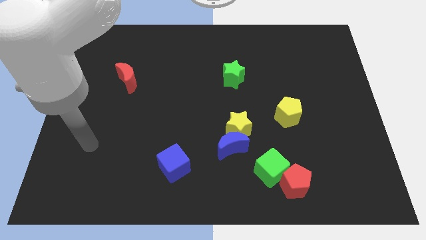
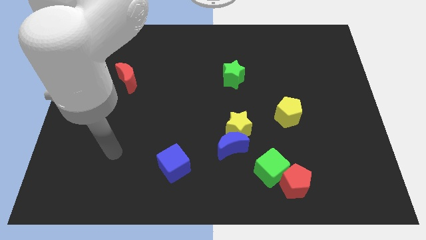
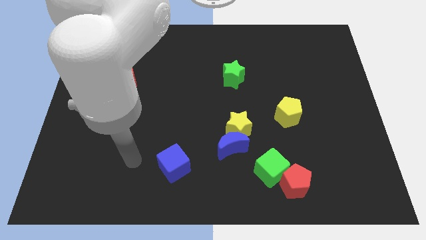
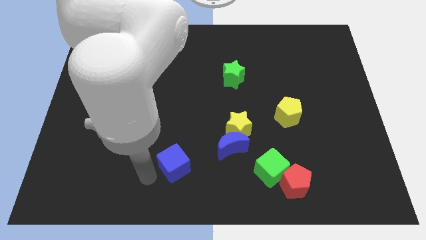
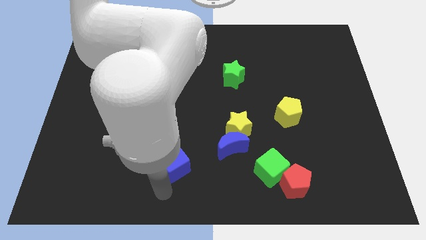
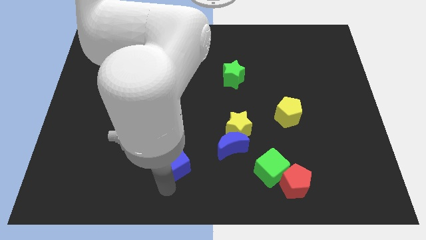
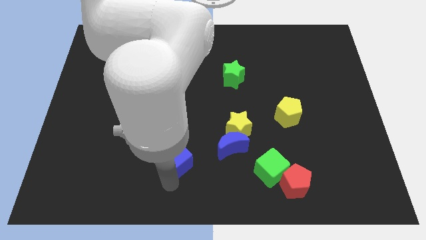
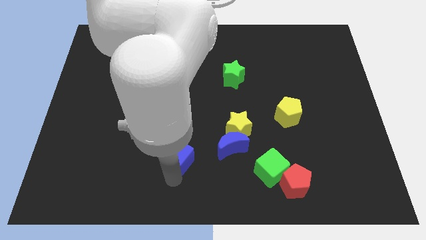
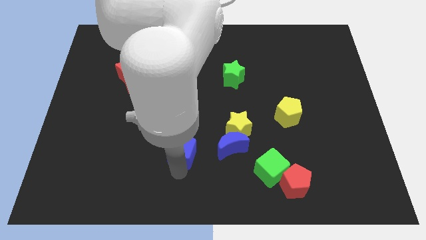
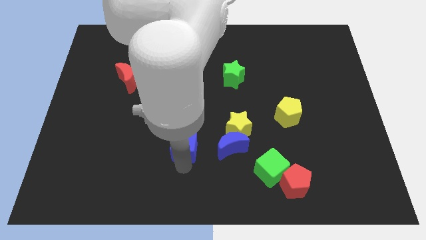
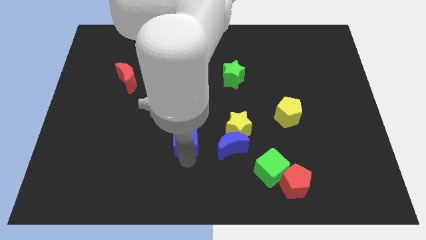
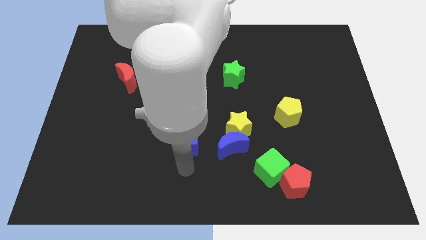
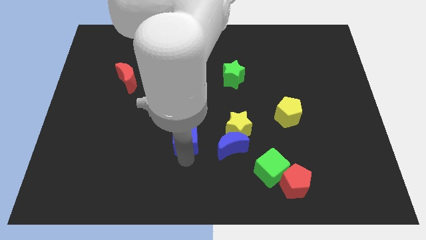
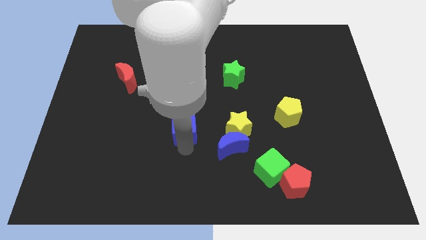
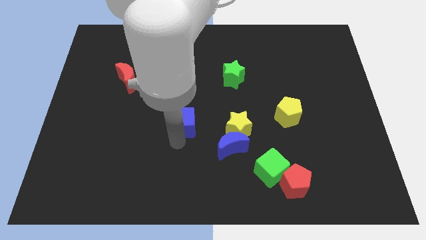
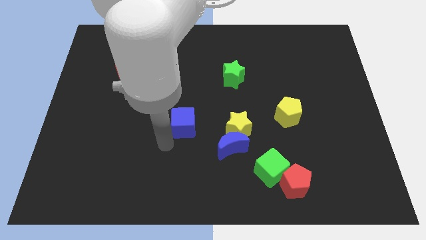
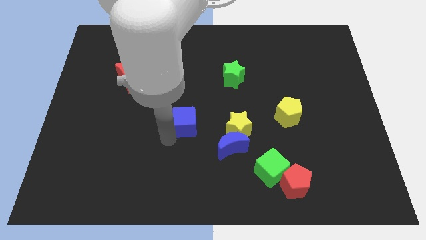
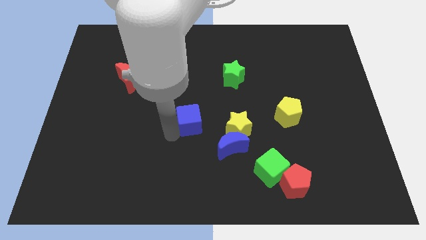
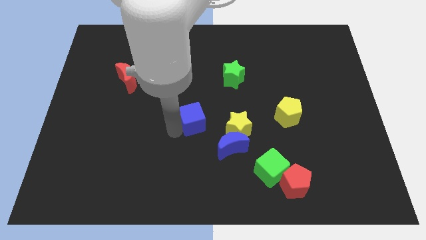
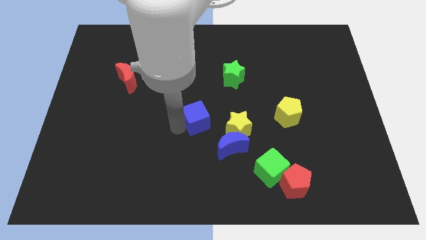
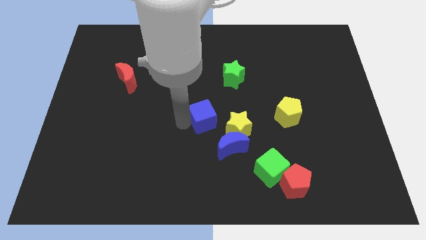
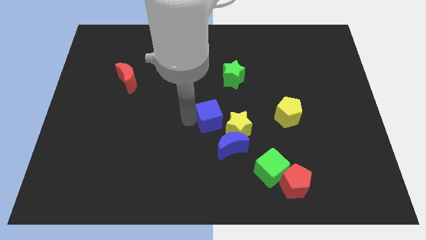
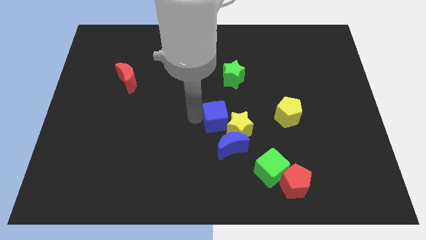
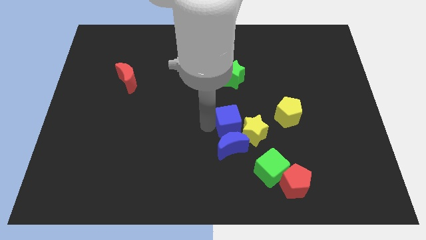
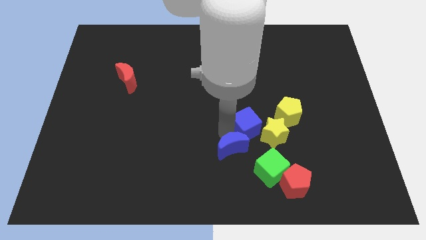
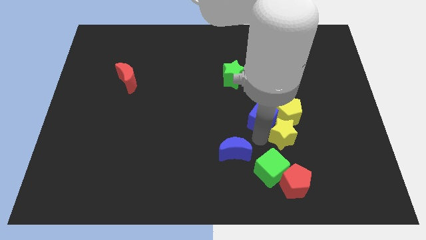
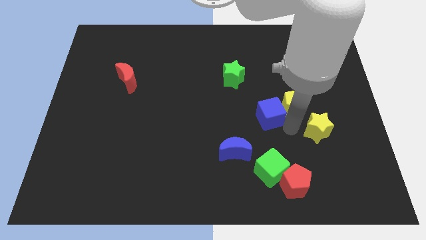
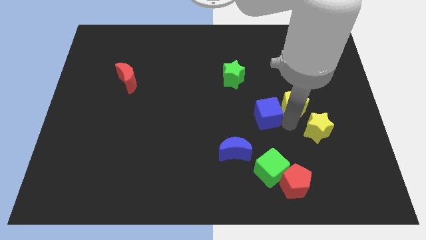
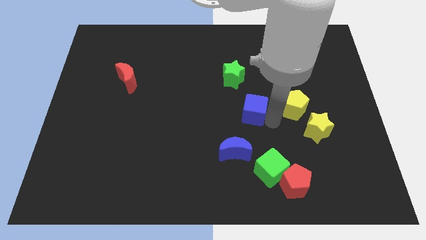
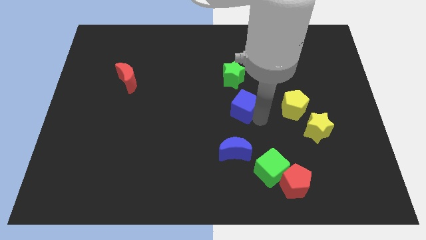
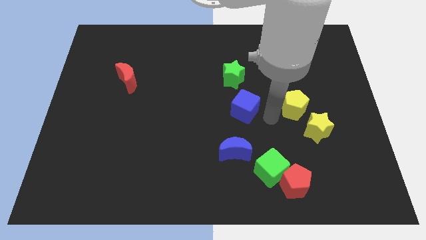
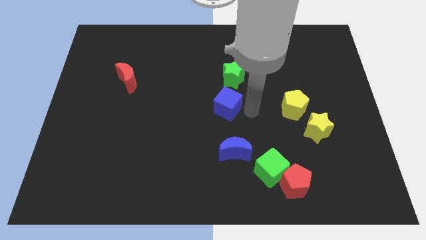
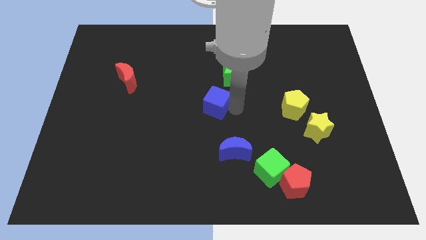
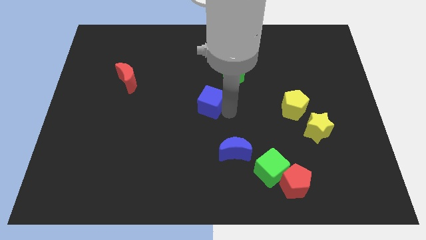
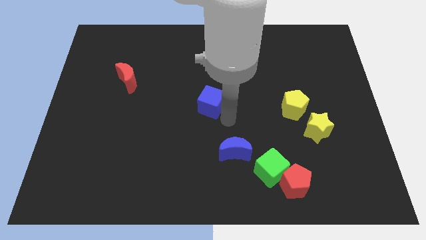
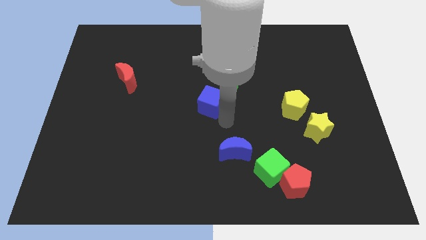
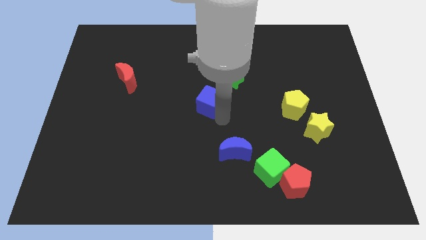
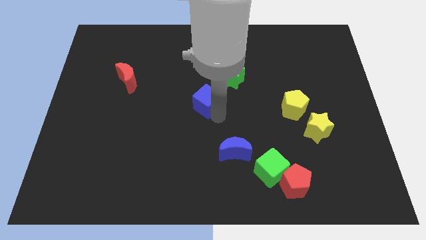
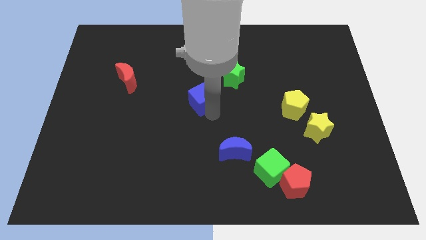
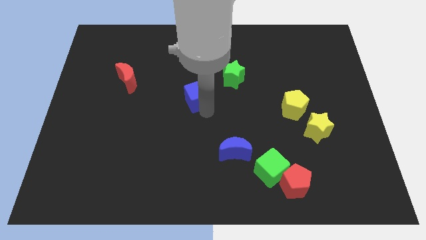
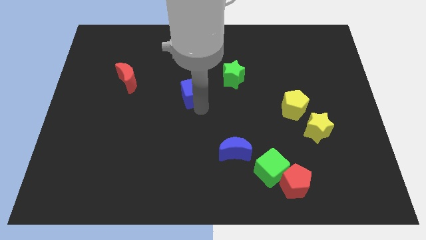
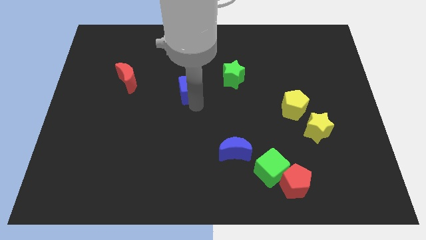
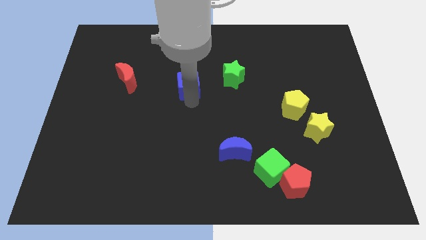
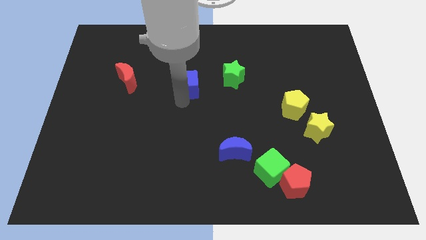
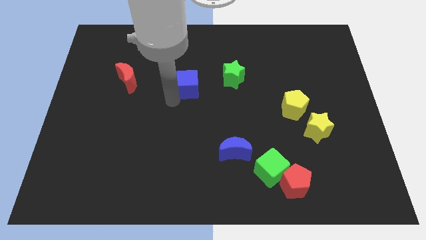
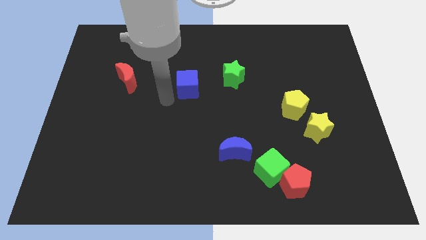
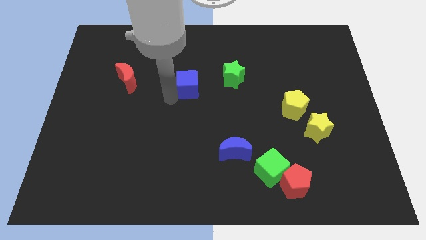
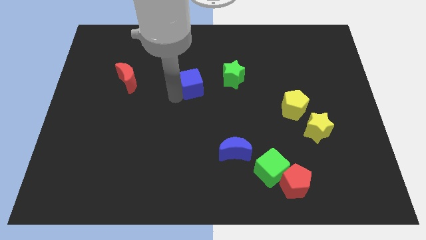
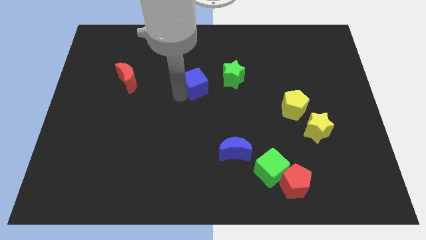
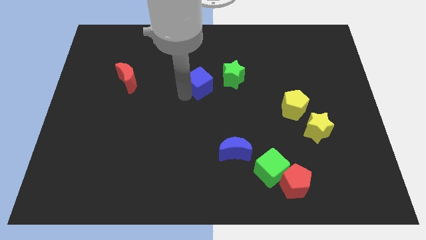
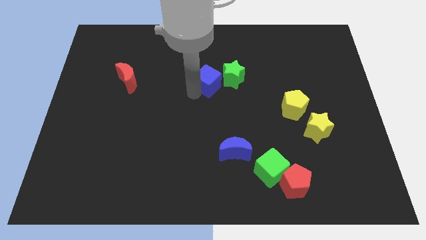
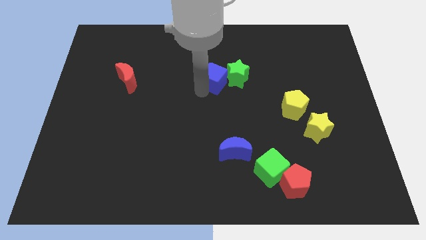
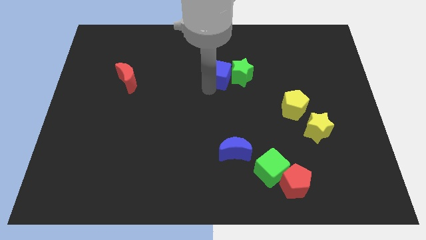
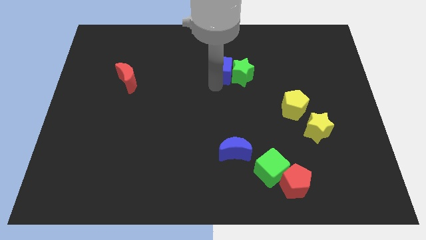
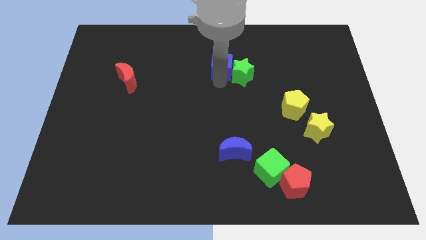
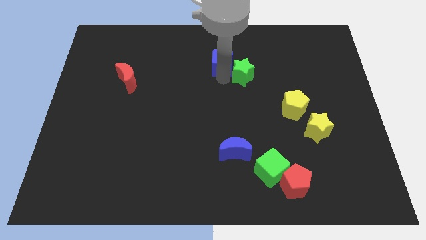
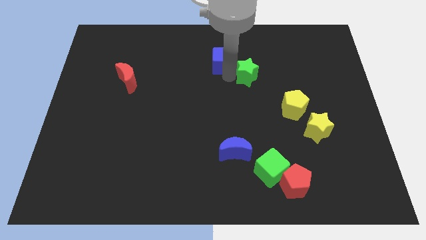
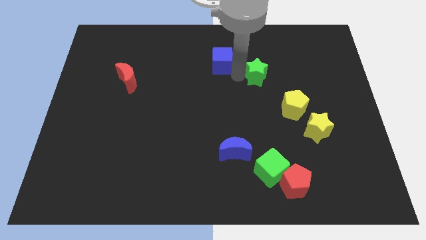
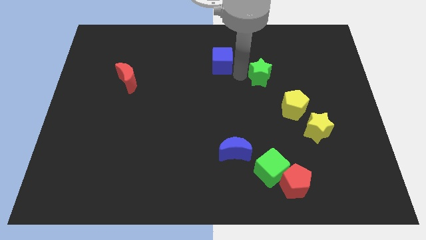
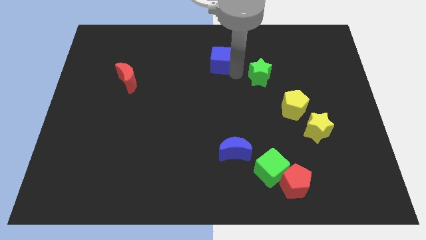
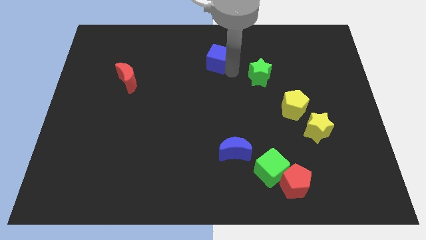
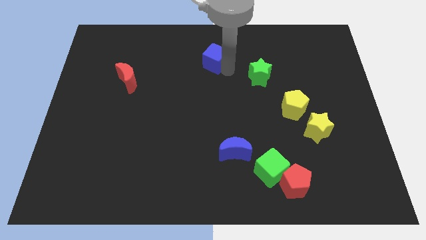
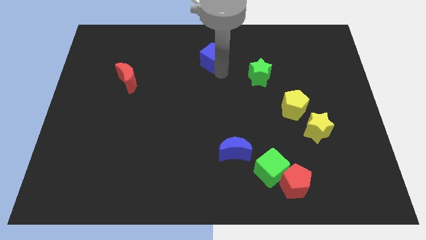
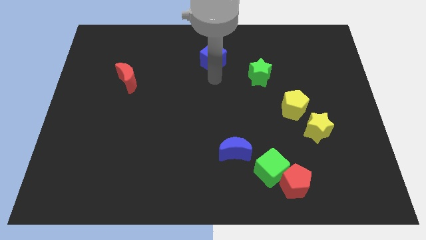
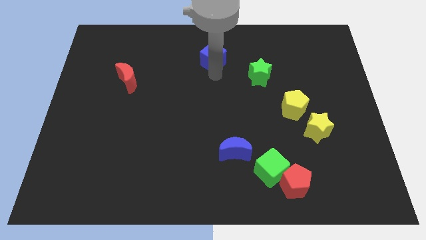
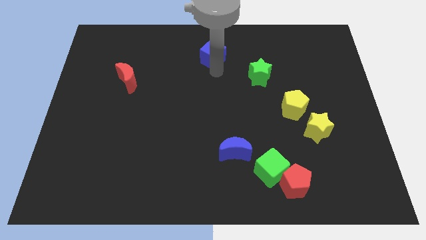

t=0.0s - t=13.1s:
move the blue cube to the top side

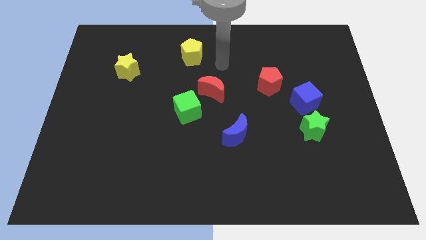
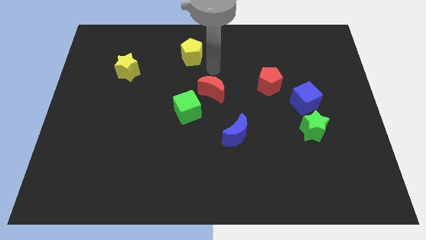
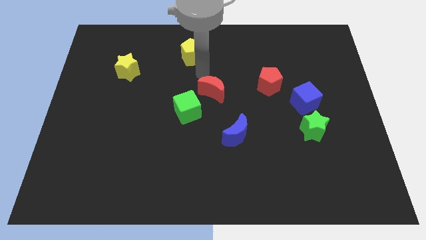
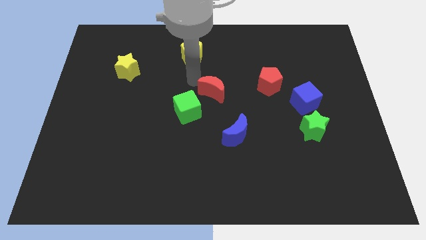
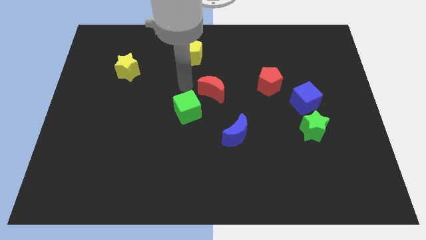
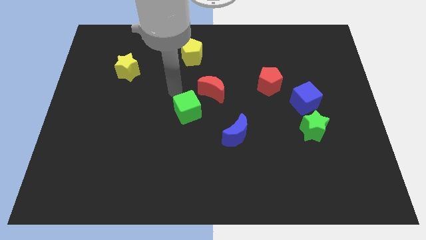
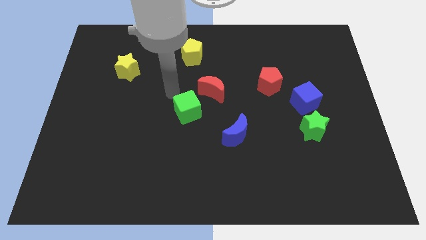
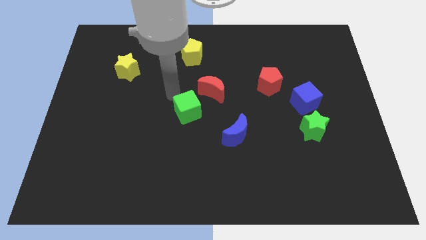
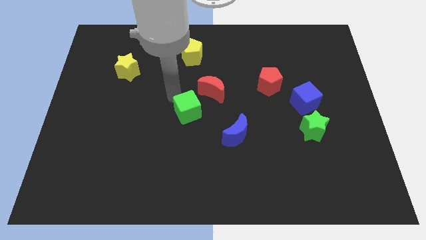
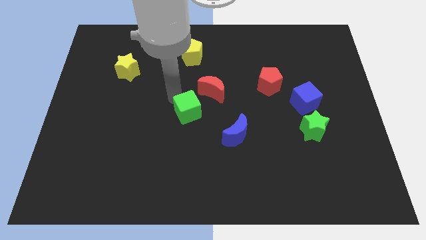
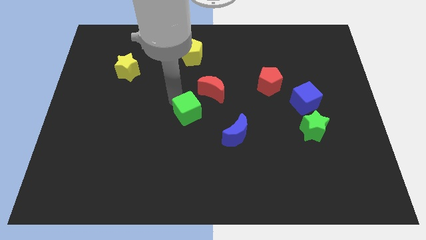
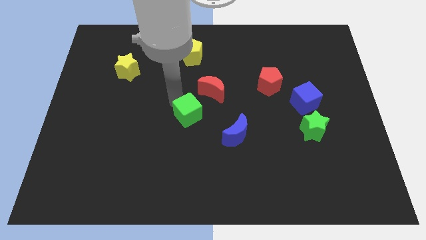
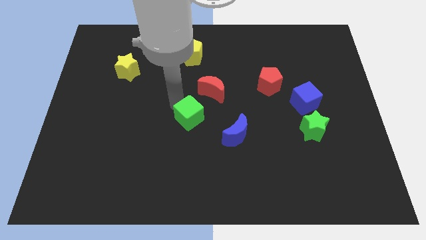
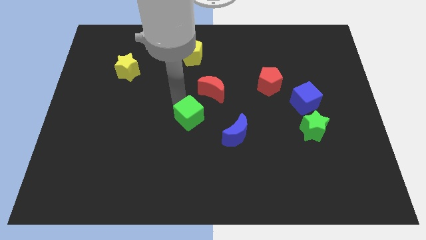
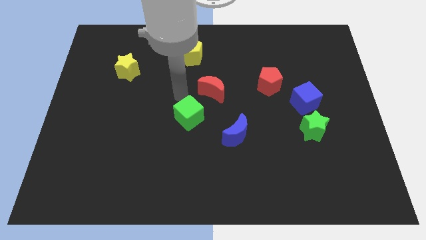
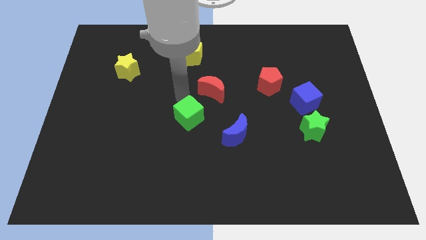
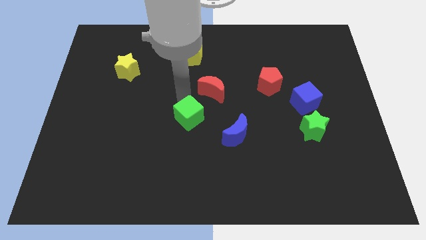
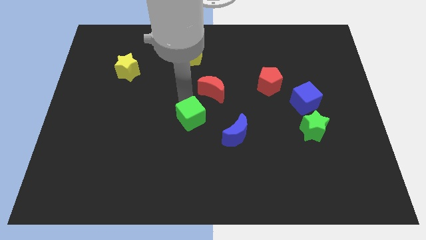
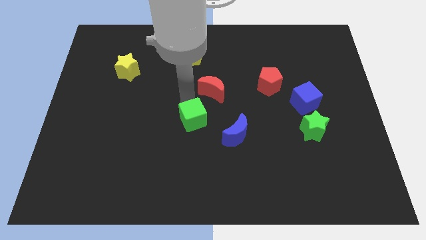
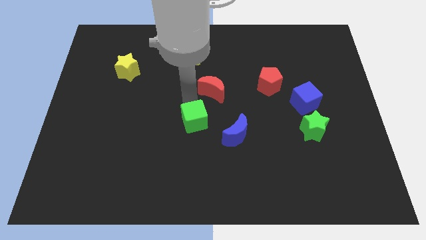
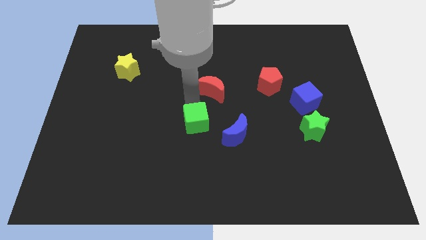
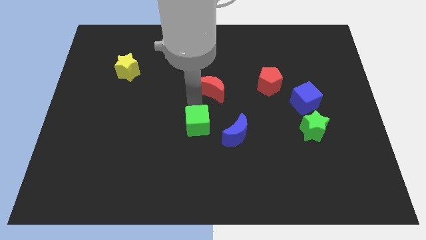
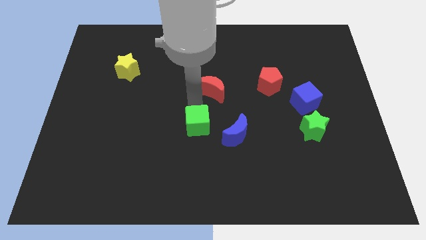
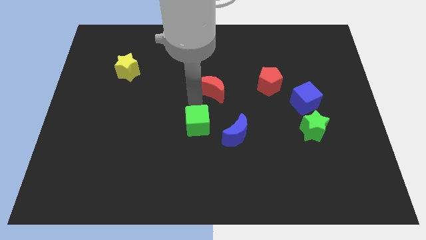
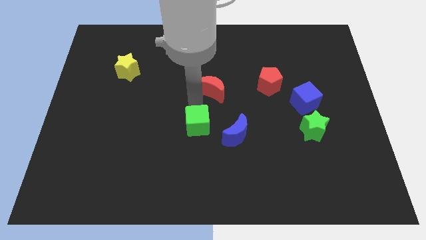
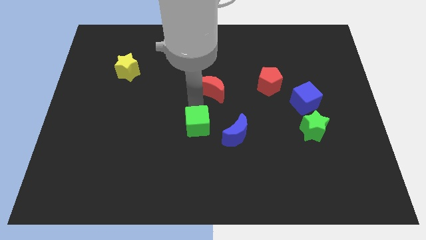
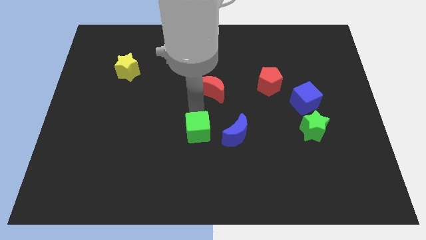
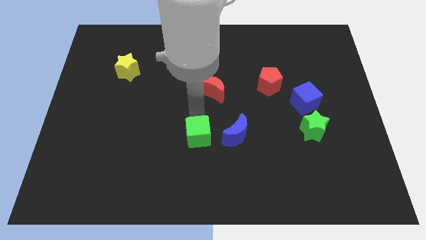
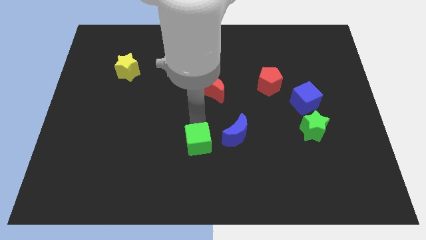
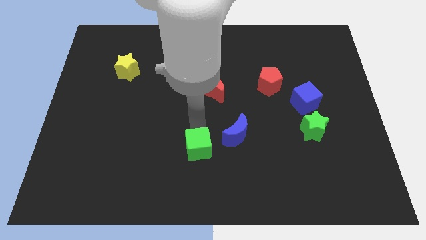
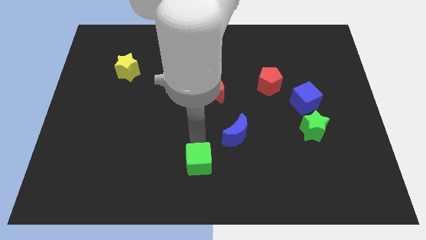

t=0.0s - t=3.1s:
slide the green cube to the bottom
